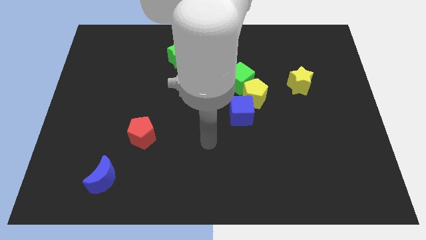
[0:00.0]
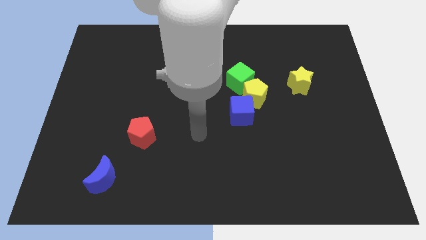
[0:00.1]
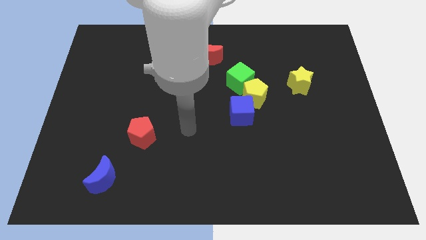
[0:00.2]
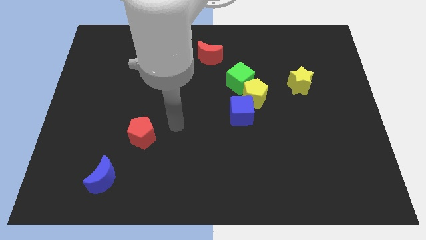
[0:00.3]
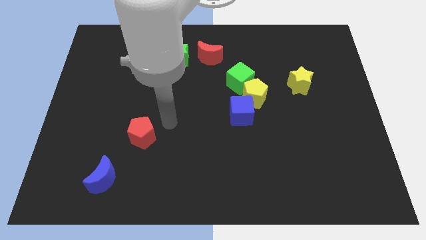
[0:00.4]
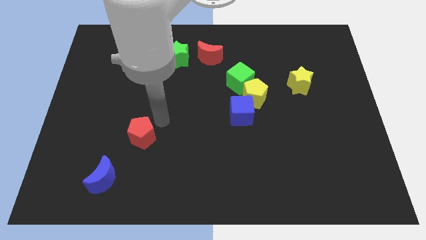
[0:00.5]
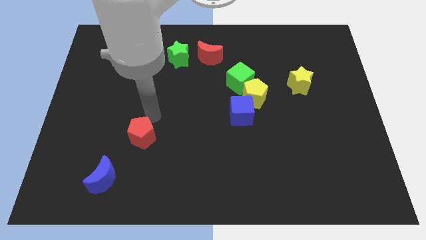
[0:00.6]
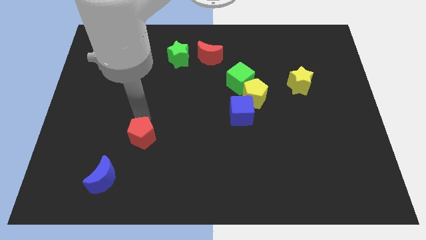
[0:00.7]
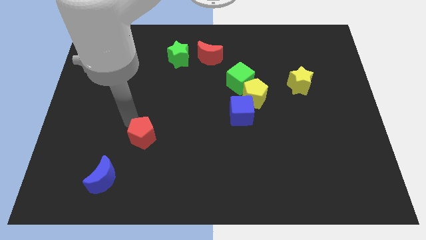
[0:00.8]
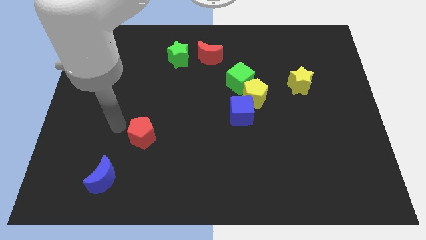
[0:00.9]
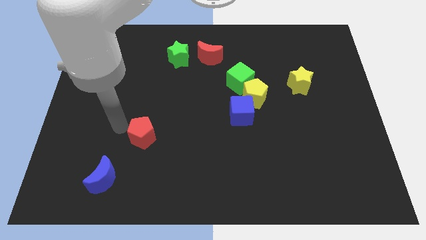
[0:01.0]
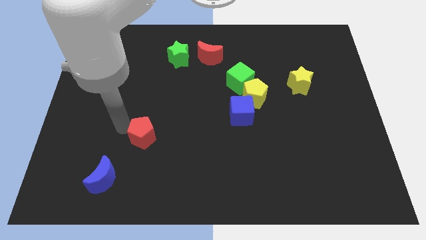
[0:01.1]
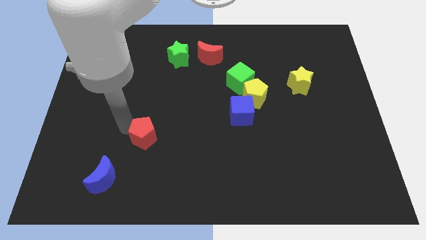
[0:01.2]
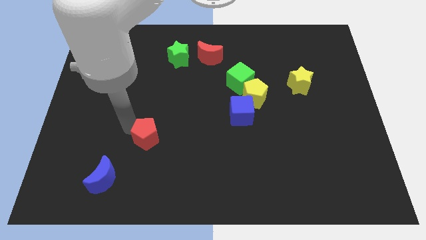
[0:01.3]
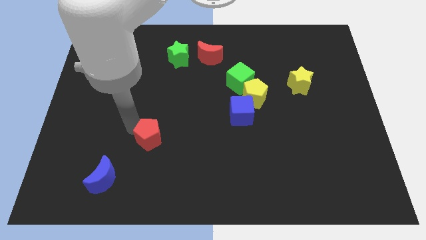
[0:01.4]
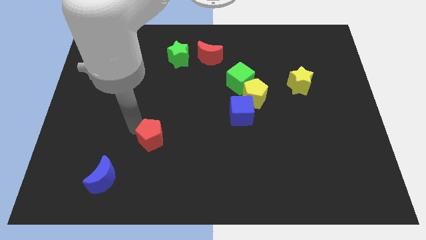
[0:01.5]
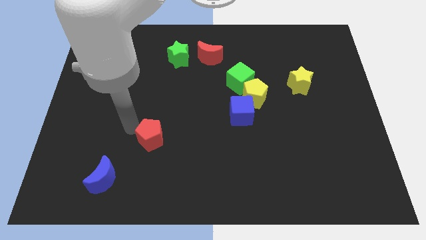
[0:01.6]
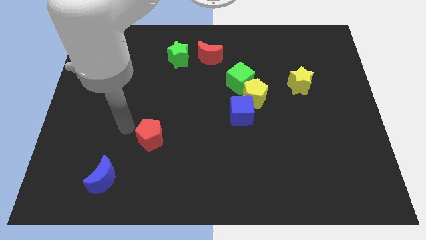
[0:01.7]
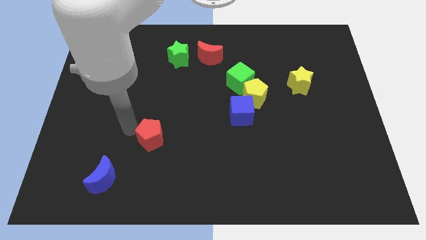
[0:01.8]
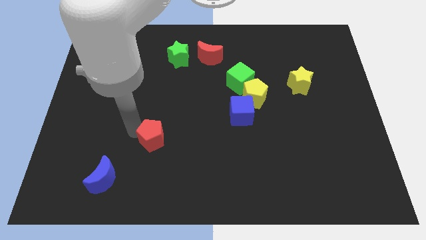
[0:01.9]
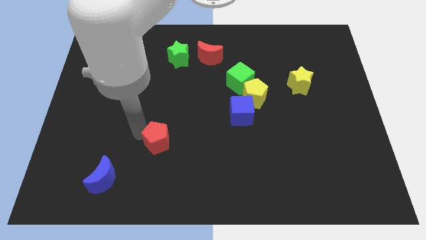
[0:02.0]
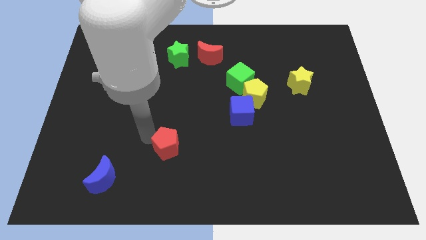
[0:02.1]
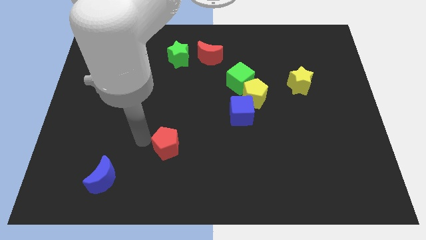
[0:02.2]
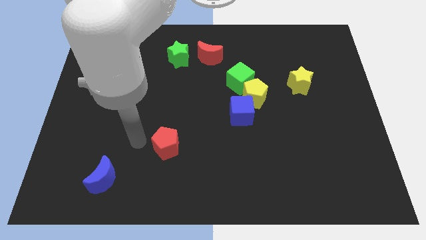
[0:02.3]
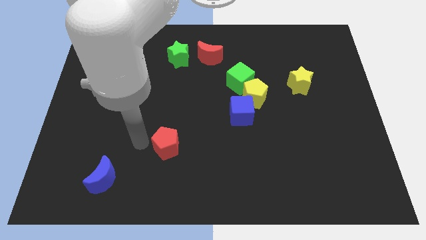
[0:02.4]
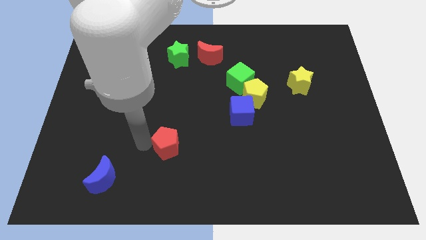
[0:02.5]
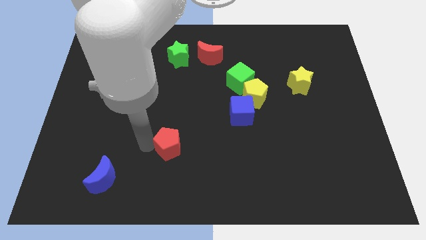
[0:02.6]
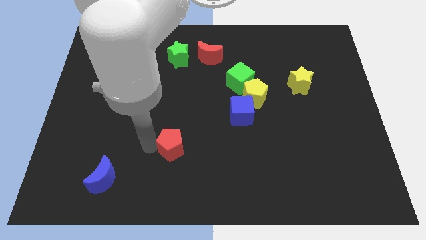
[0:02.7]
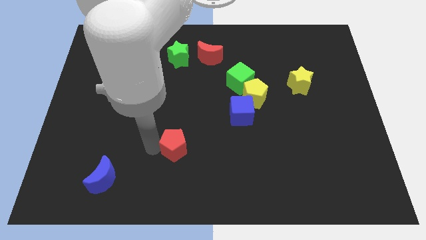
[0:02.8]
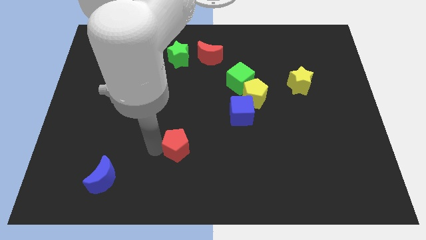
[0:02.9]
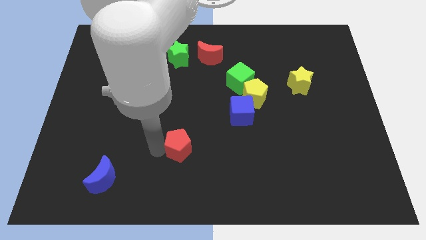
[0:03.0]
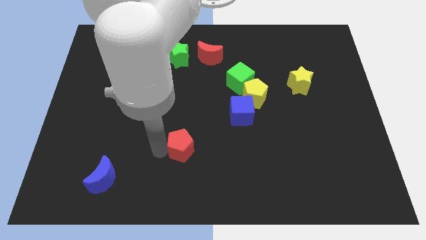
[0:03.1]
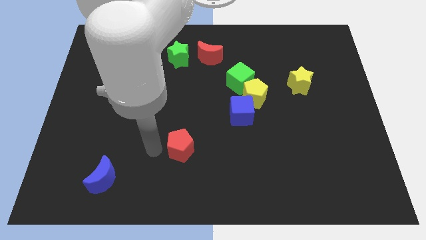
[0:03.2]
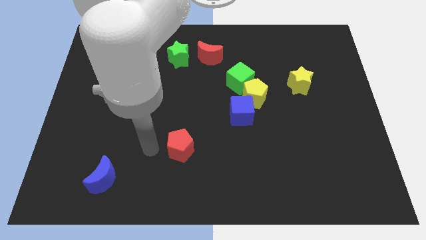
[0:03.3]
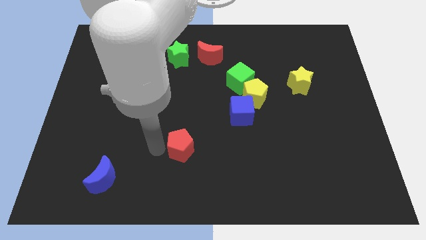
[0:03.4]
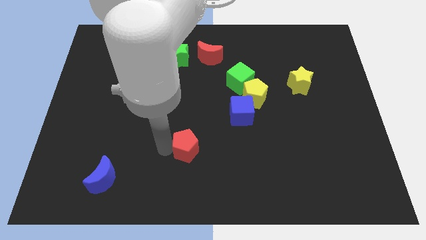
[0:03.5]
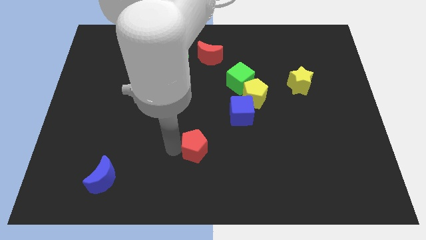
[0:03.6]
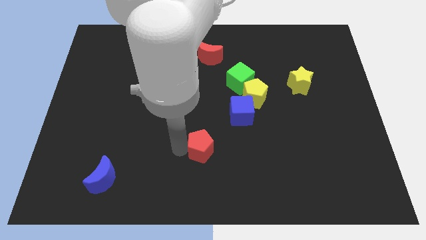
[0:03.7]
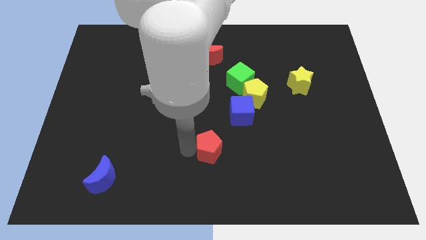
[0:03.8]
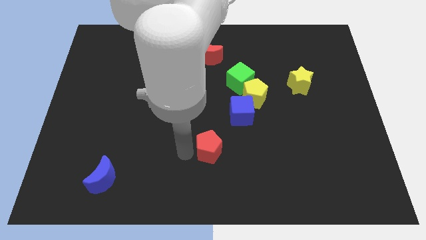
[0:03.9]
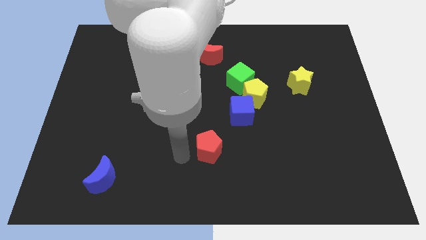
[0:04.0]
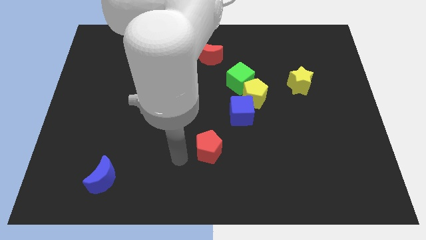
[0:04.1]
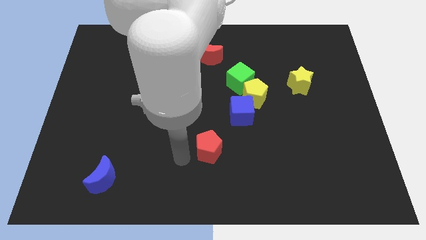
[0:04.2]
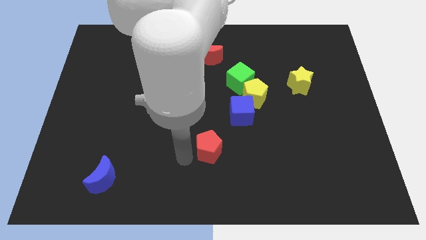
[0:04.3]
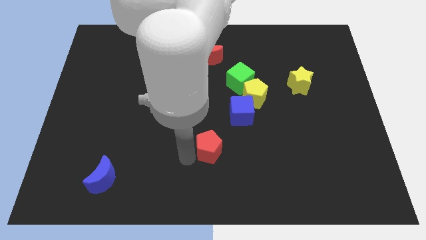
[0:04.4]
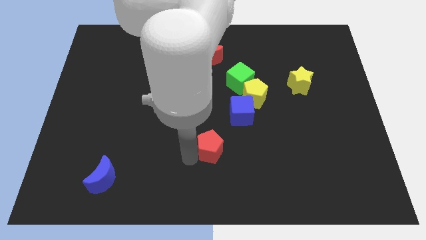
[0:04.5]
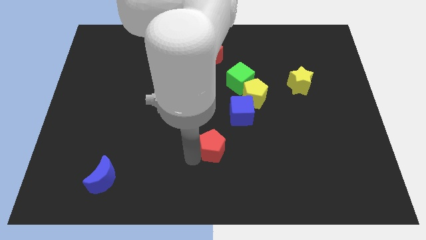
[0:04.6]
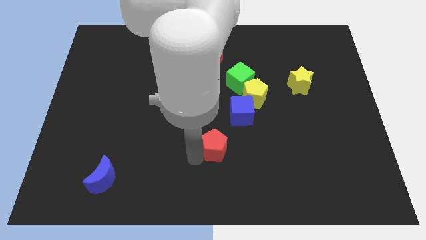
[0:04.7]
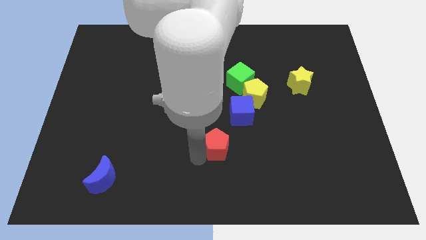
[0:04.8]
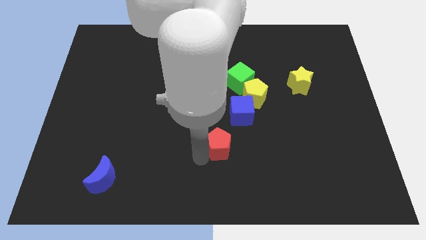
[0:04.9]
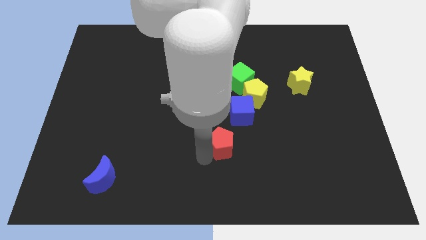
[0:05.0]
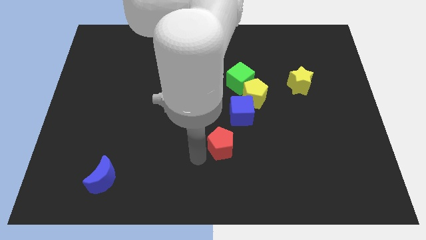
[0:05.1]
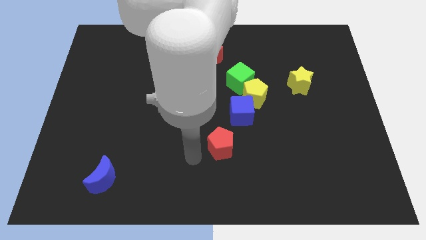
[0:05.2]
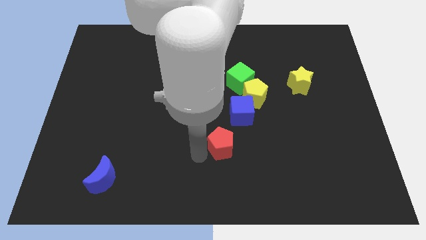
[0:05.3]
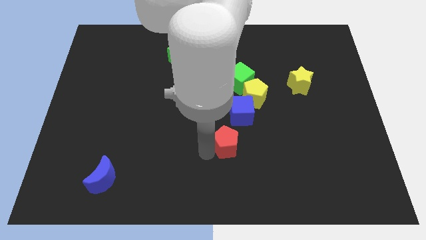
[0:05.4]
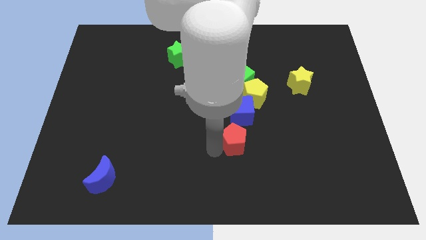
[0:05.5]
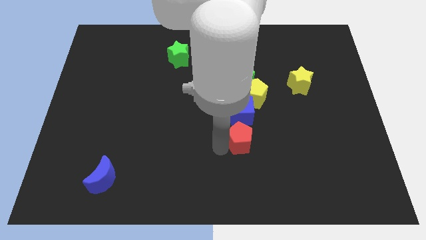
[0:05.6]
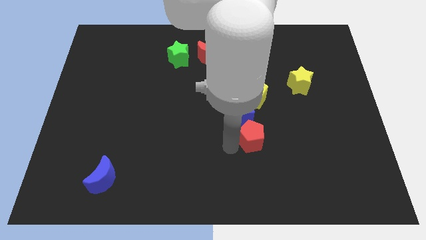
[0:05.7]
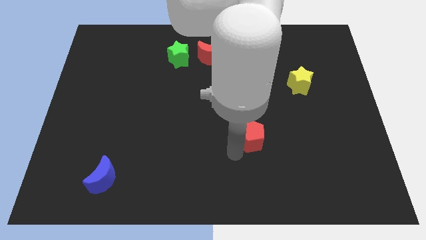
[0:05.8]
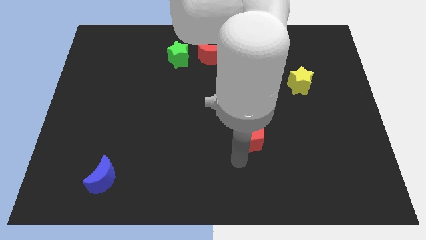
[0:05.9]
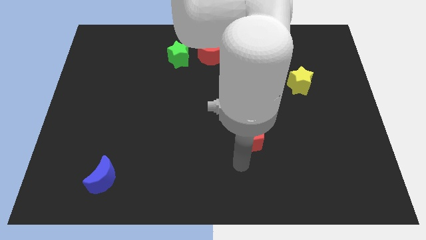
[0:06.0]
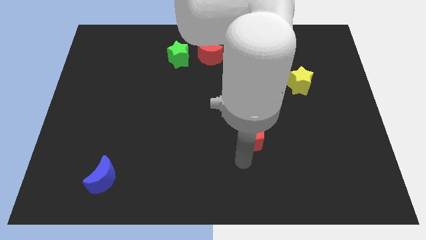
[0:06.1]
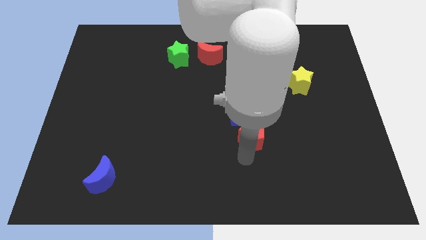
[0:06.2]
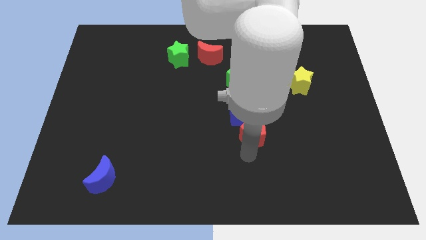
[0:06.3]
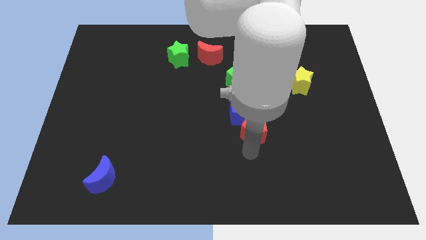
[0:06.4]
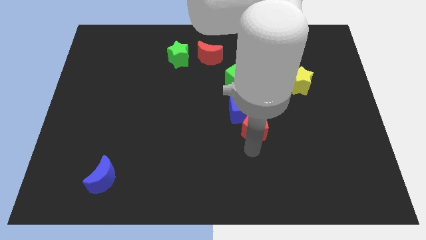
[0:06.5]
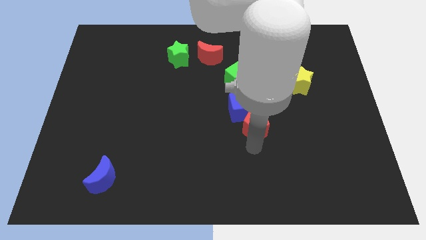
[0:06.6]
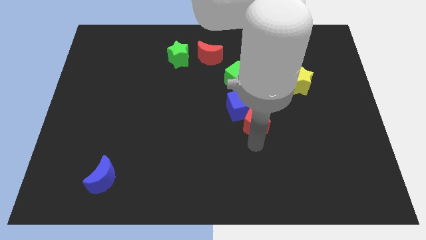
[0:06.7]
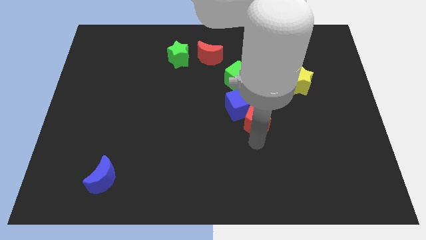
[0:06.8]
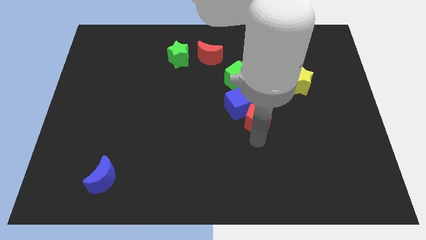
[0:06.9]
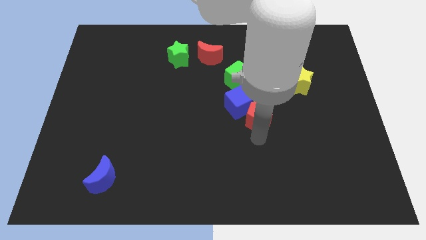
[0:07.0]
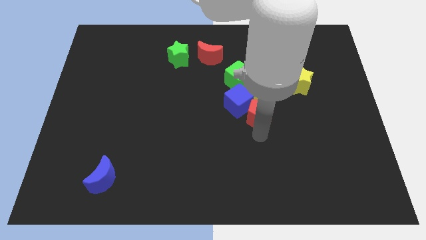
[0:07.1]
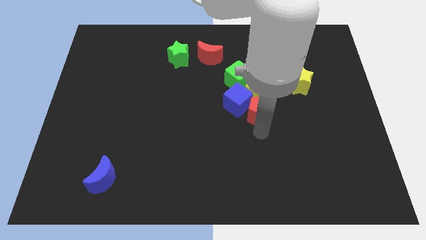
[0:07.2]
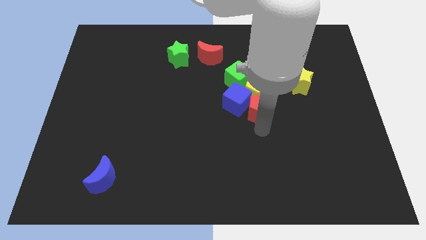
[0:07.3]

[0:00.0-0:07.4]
move the red pentagon towards the yellow pentagon

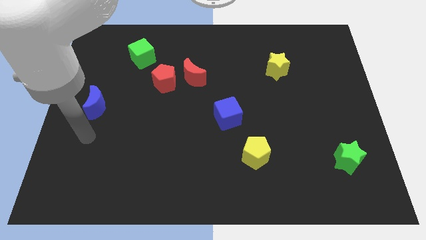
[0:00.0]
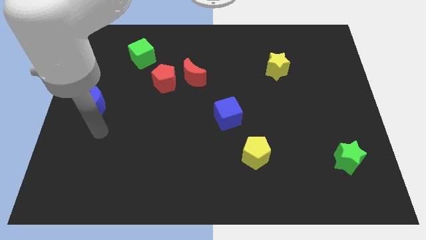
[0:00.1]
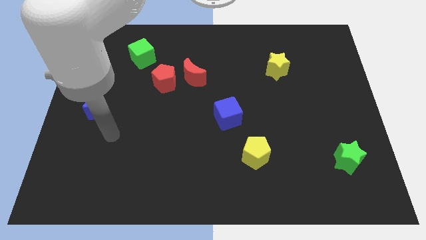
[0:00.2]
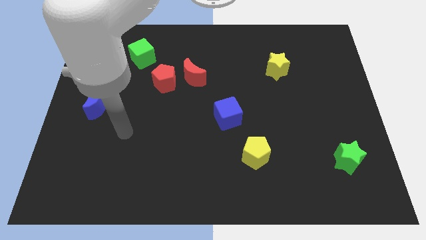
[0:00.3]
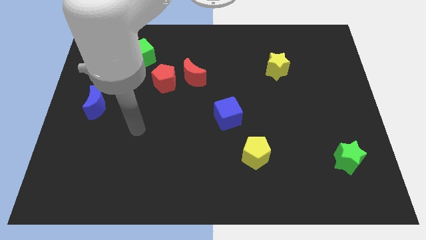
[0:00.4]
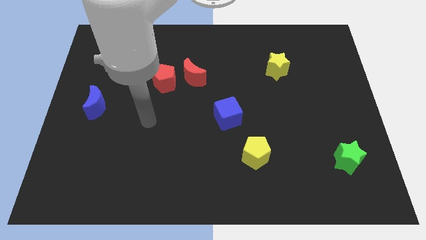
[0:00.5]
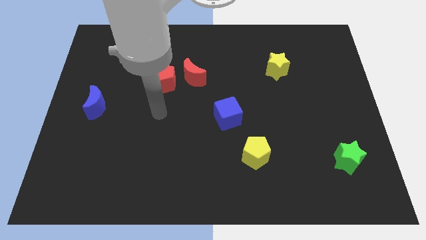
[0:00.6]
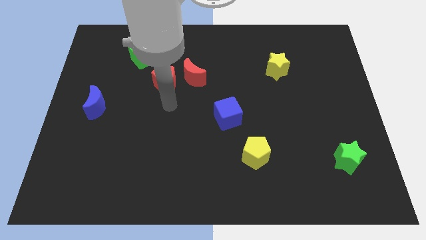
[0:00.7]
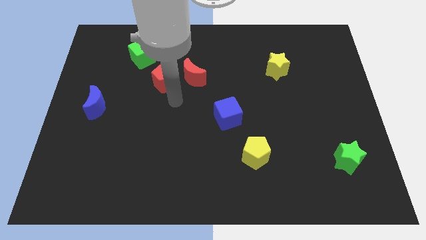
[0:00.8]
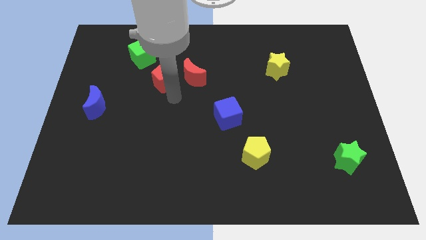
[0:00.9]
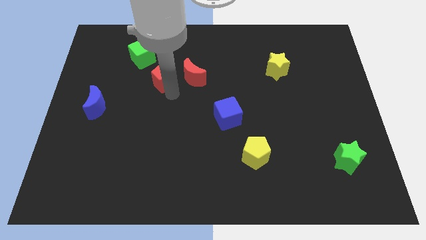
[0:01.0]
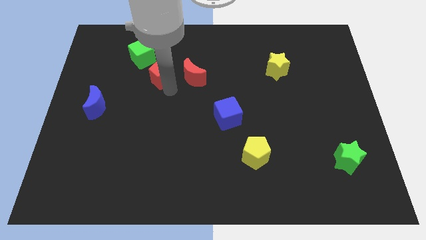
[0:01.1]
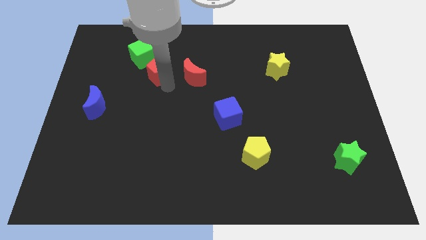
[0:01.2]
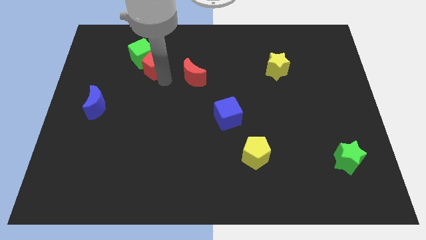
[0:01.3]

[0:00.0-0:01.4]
push the red pentagon to the green cube
